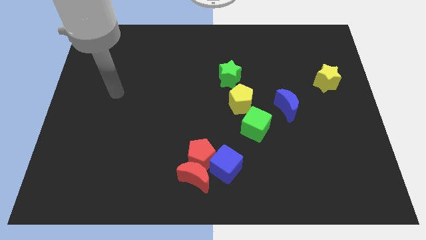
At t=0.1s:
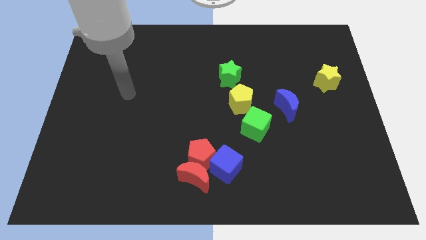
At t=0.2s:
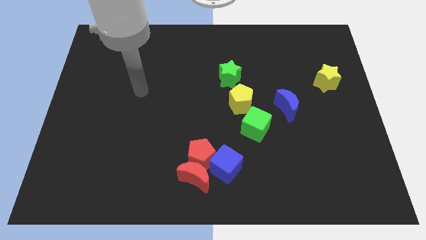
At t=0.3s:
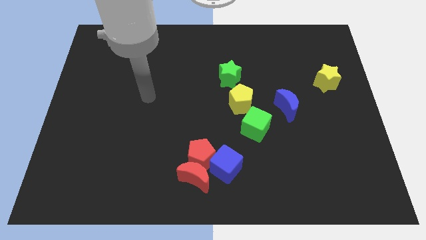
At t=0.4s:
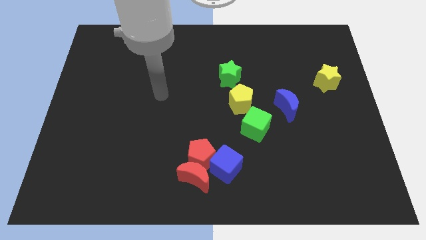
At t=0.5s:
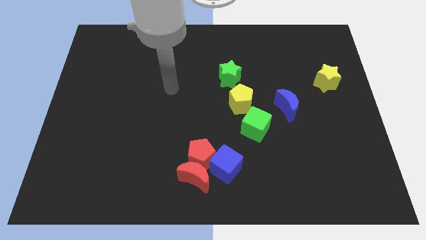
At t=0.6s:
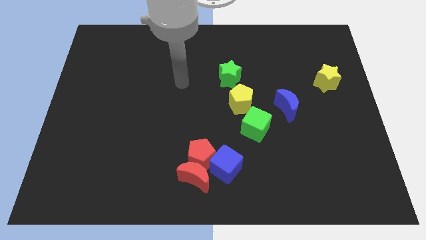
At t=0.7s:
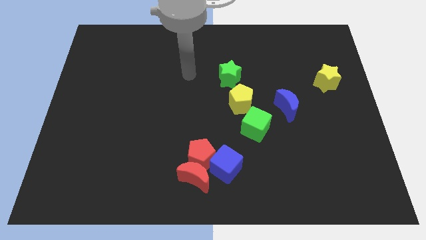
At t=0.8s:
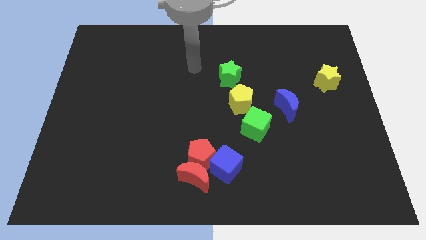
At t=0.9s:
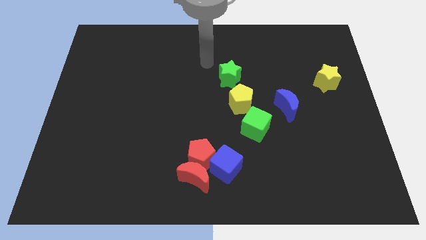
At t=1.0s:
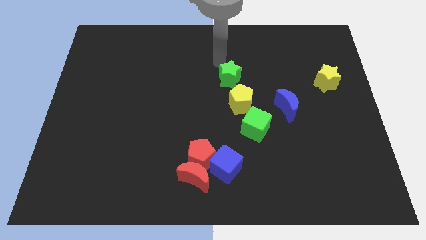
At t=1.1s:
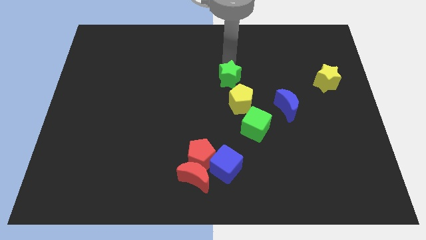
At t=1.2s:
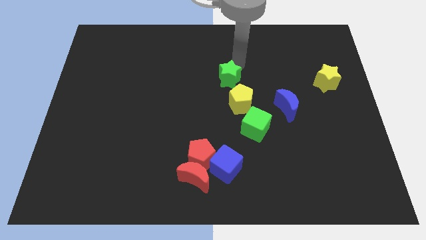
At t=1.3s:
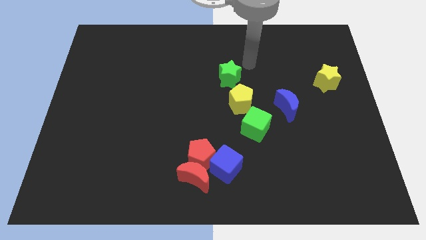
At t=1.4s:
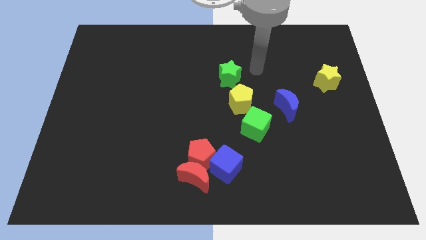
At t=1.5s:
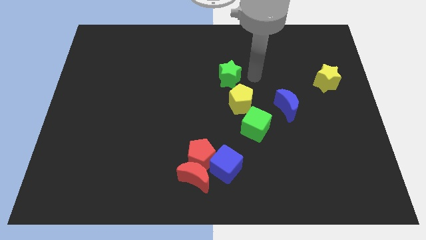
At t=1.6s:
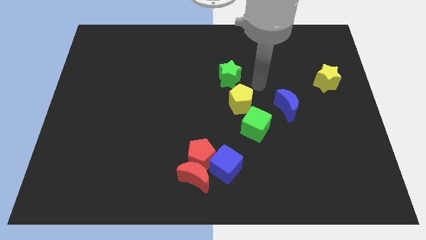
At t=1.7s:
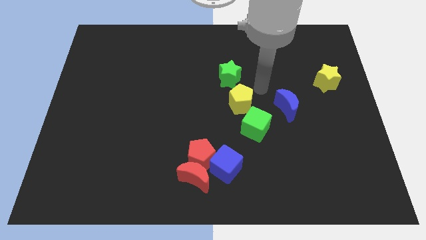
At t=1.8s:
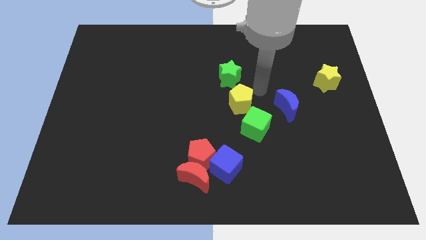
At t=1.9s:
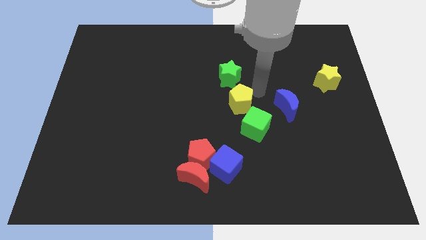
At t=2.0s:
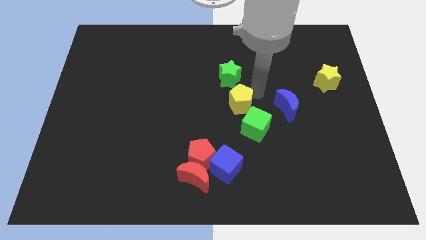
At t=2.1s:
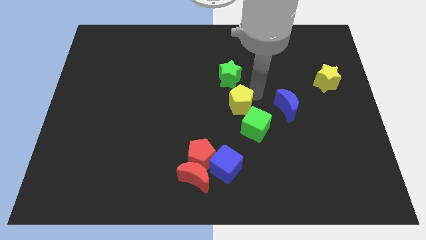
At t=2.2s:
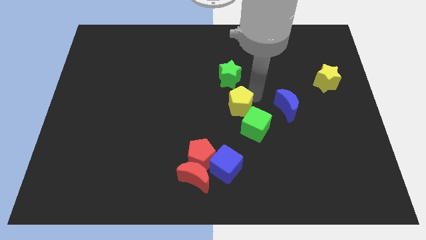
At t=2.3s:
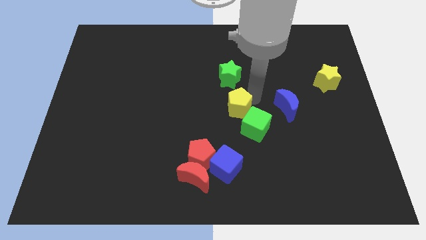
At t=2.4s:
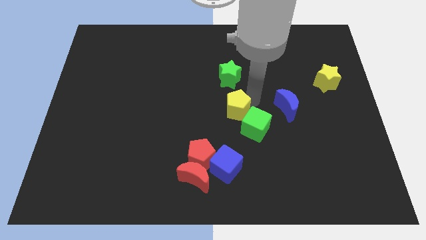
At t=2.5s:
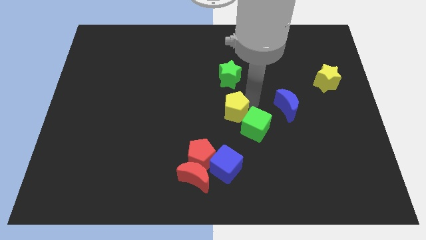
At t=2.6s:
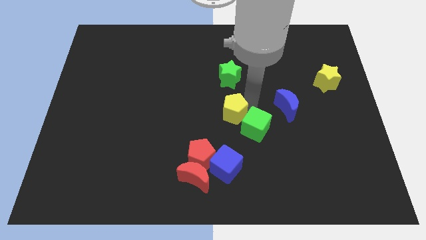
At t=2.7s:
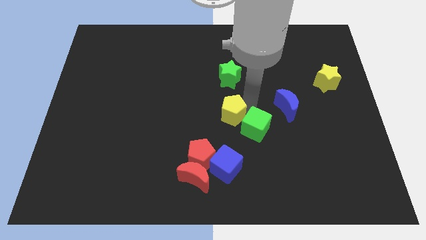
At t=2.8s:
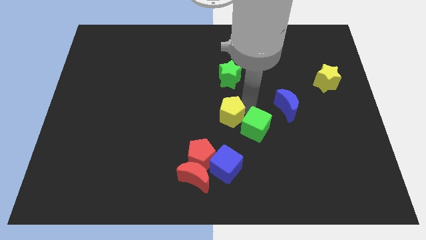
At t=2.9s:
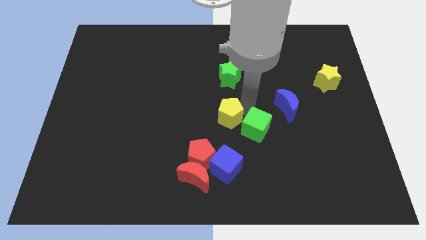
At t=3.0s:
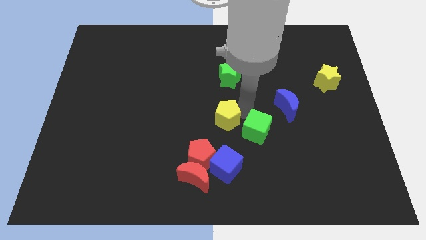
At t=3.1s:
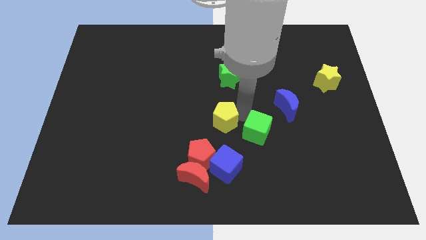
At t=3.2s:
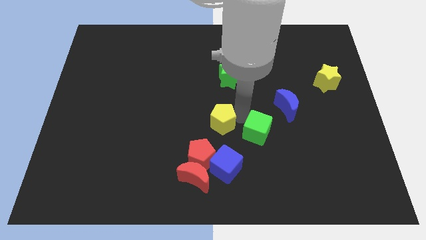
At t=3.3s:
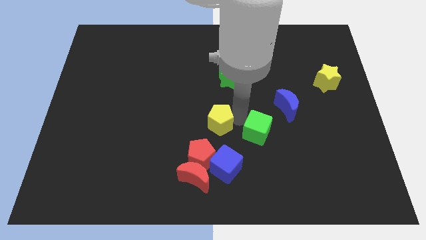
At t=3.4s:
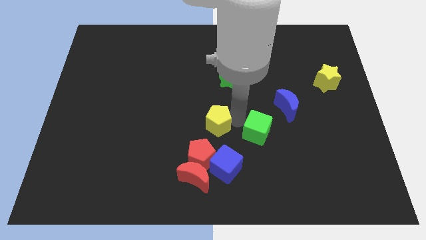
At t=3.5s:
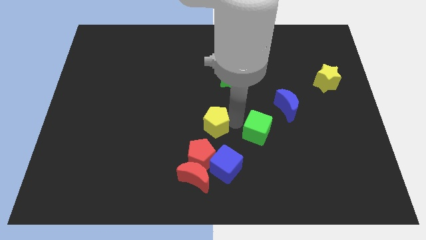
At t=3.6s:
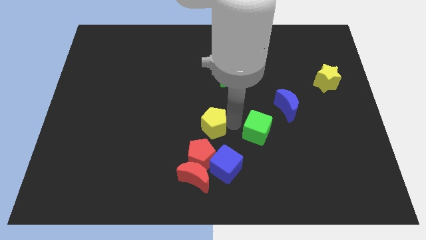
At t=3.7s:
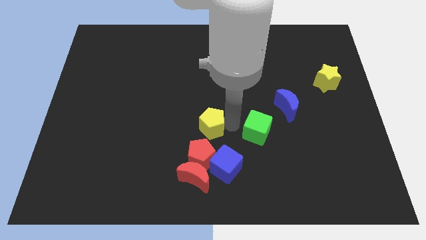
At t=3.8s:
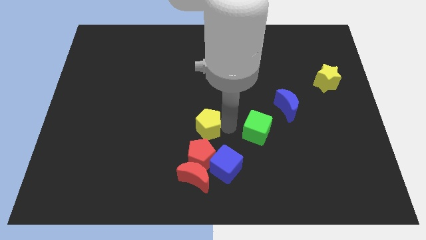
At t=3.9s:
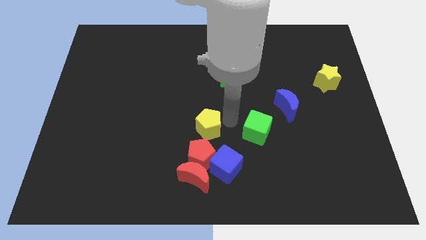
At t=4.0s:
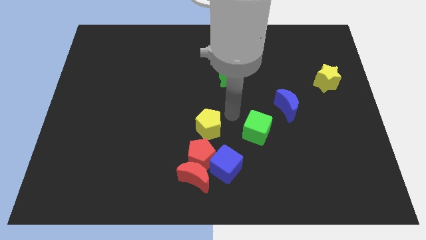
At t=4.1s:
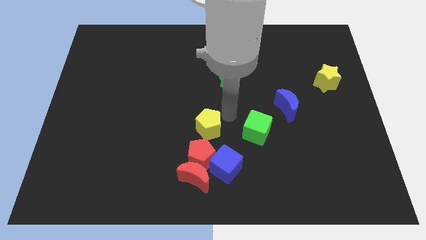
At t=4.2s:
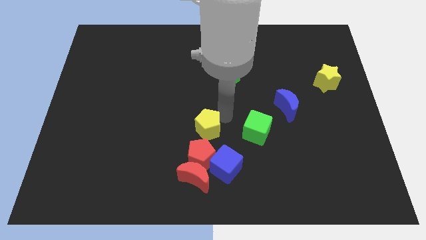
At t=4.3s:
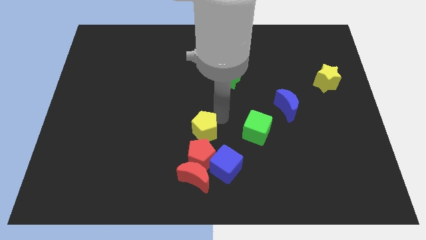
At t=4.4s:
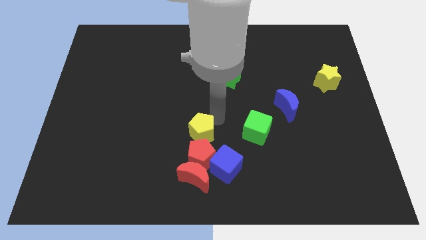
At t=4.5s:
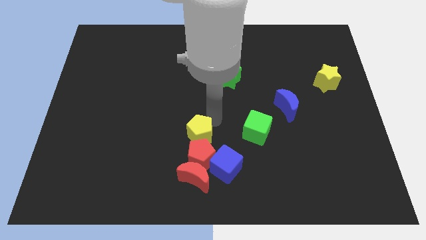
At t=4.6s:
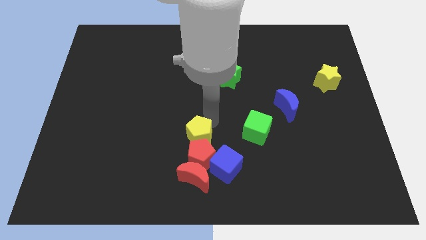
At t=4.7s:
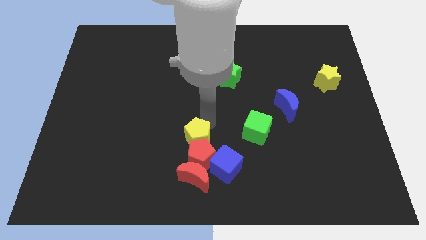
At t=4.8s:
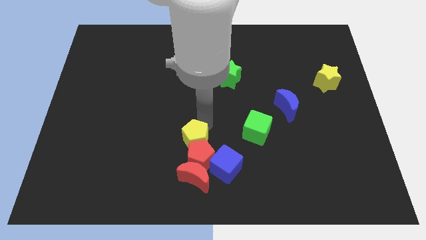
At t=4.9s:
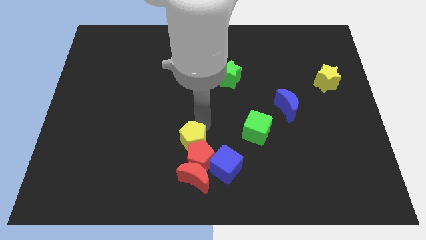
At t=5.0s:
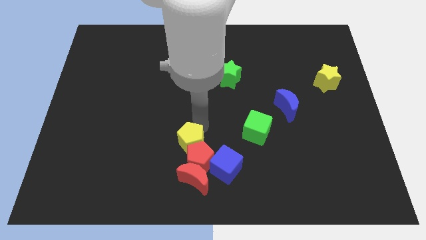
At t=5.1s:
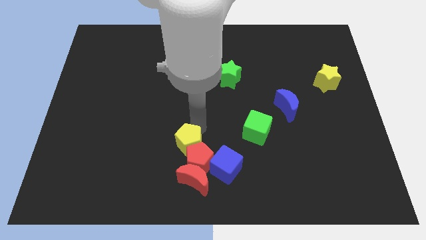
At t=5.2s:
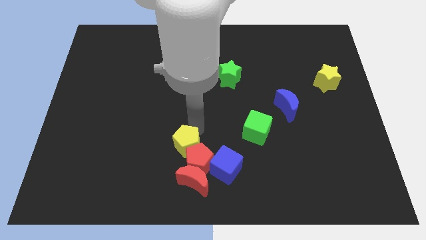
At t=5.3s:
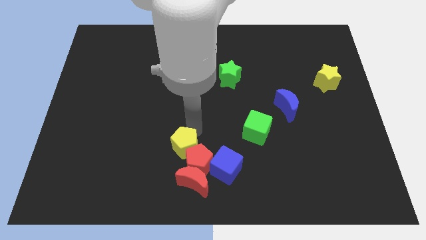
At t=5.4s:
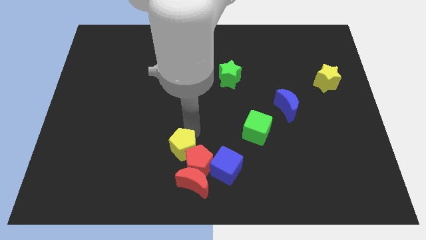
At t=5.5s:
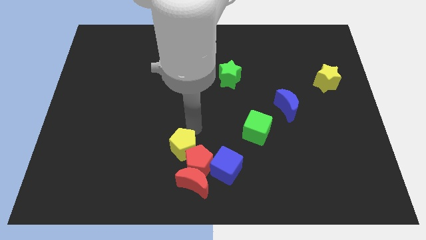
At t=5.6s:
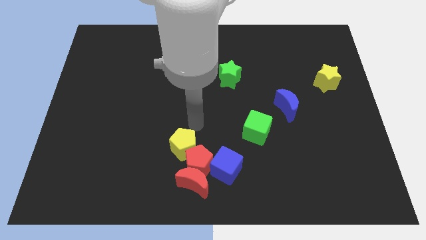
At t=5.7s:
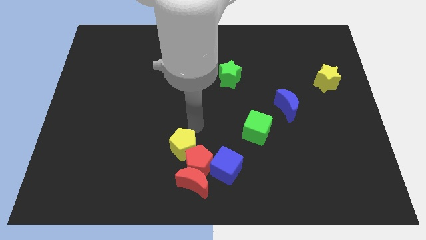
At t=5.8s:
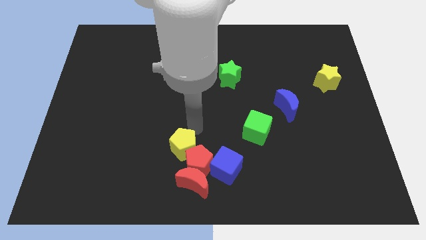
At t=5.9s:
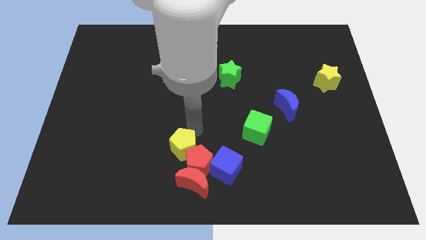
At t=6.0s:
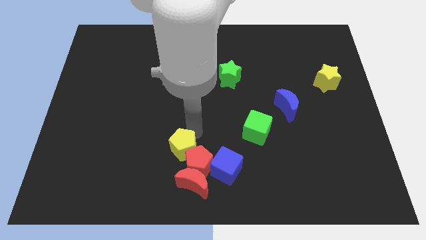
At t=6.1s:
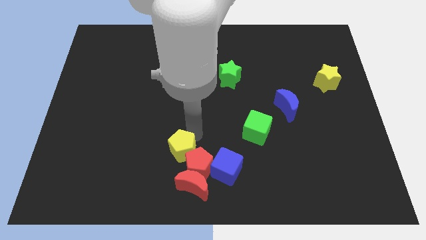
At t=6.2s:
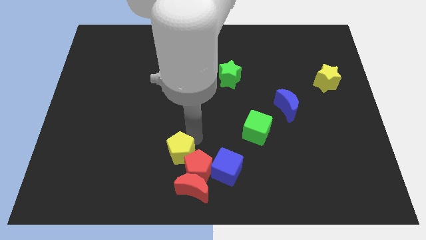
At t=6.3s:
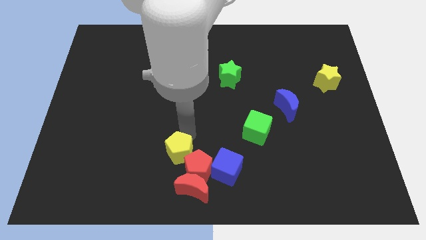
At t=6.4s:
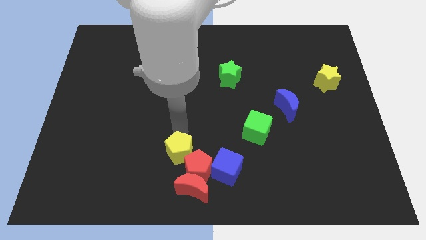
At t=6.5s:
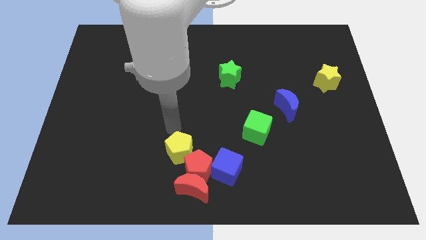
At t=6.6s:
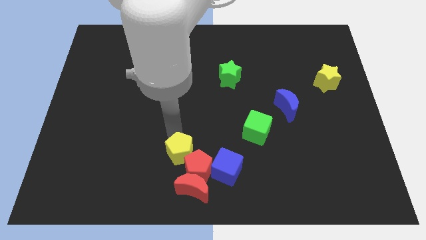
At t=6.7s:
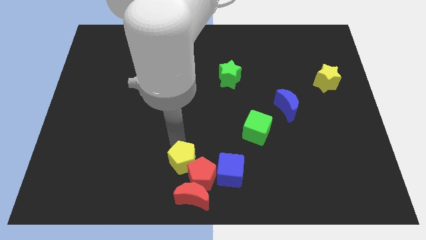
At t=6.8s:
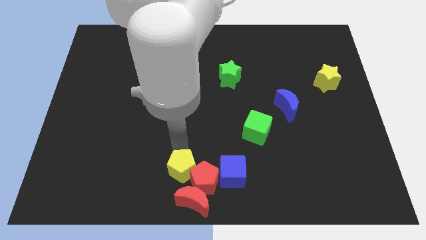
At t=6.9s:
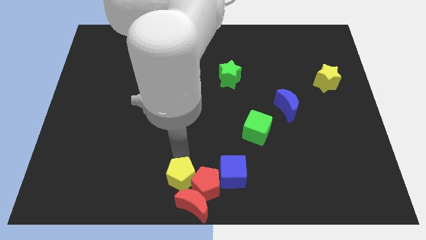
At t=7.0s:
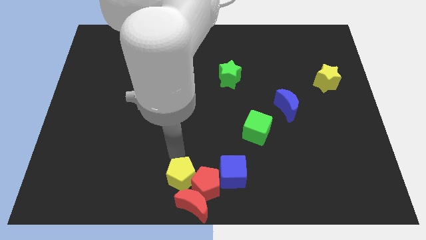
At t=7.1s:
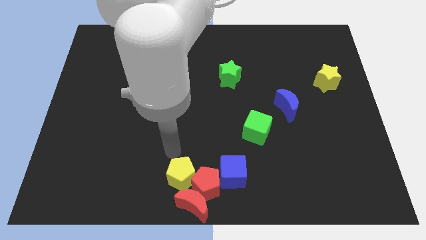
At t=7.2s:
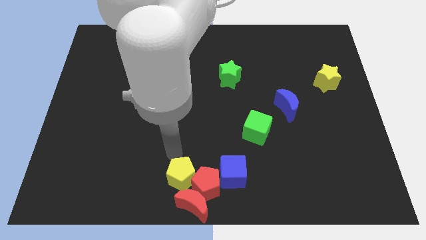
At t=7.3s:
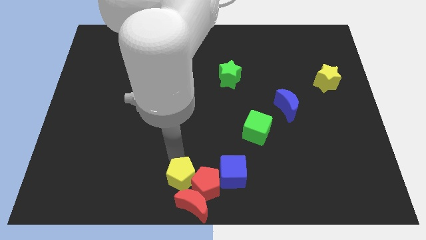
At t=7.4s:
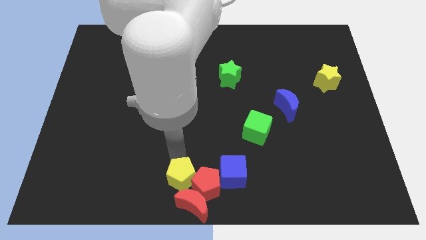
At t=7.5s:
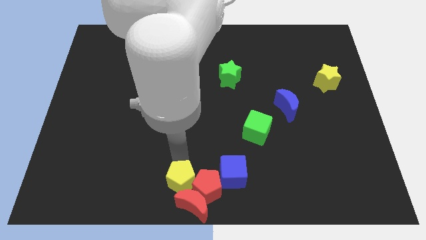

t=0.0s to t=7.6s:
push the yellow pentagon close to the red moon
